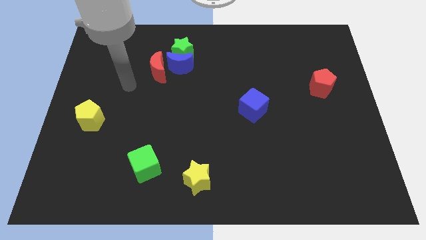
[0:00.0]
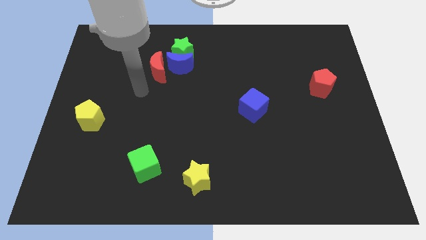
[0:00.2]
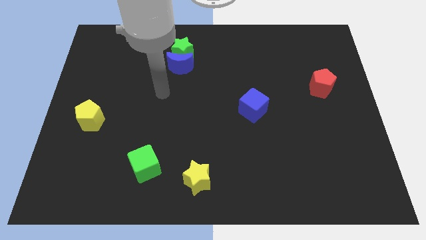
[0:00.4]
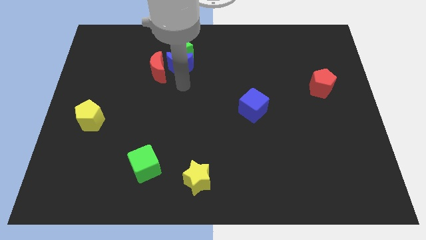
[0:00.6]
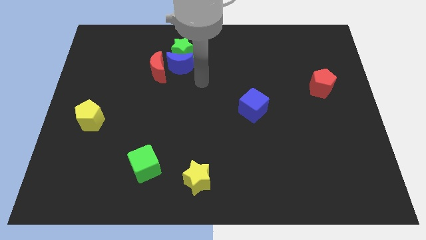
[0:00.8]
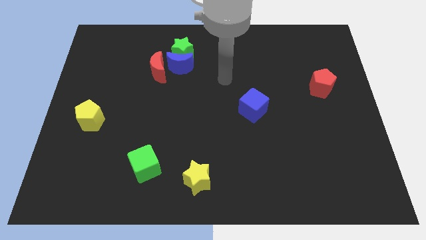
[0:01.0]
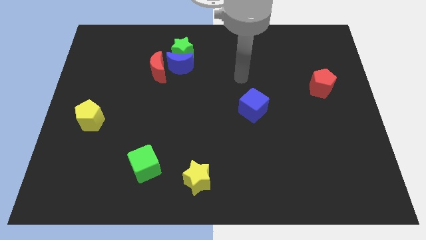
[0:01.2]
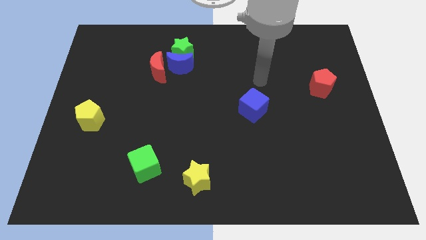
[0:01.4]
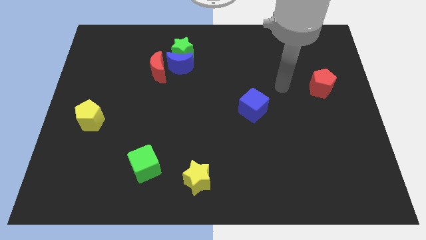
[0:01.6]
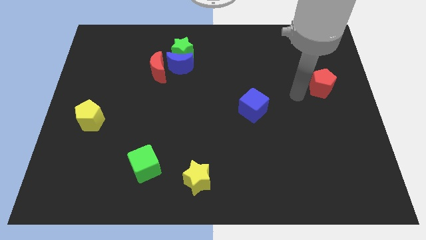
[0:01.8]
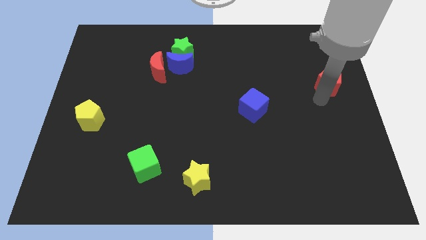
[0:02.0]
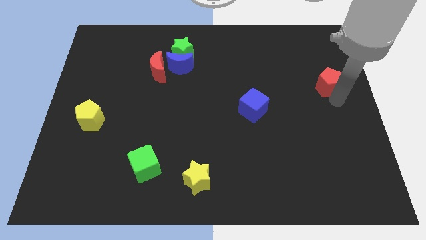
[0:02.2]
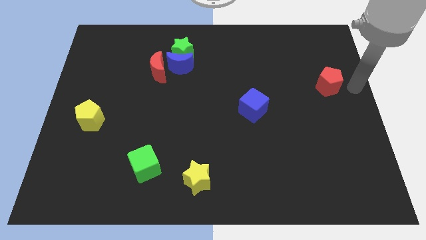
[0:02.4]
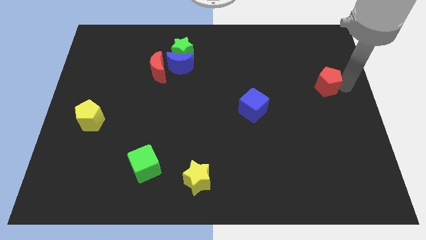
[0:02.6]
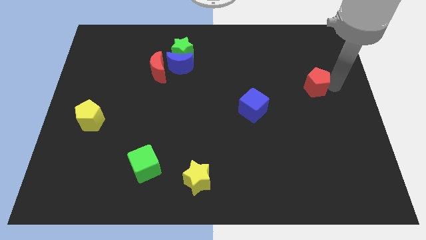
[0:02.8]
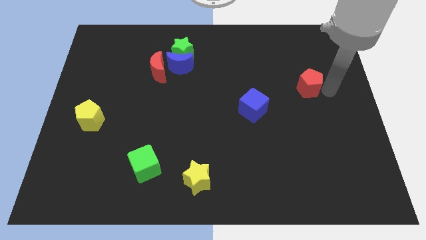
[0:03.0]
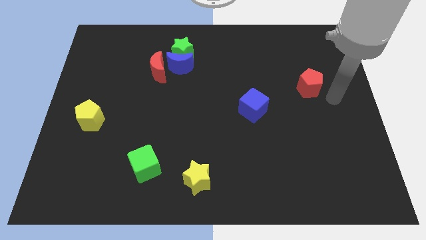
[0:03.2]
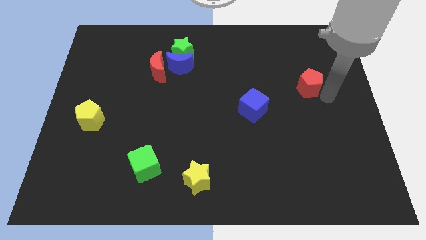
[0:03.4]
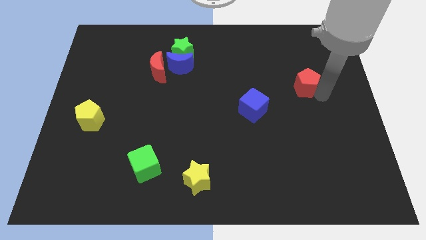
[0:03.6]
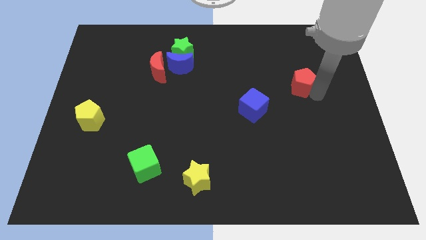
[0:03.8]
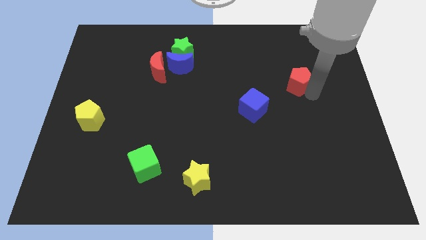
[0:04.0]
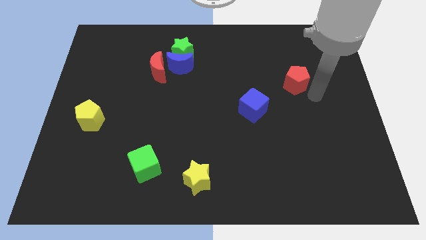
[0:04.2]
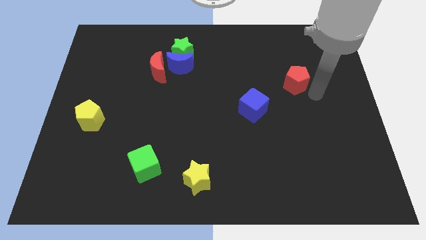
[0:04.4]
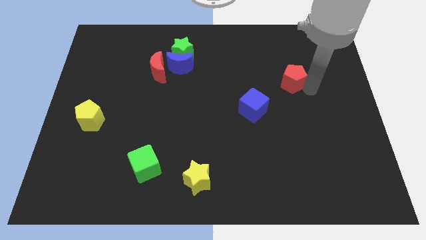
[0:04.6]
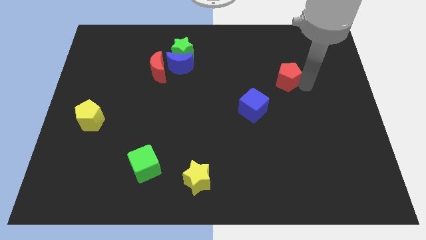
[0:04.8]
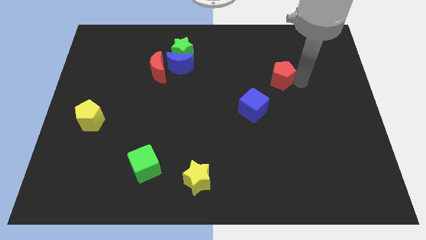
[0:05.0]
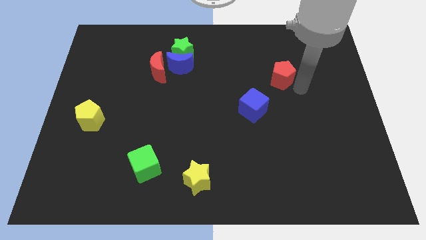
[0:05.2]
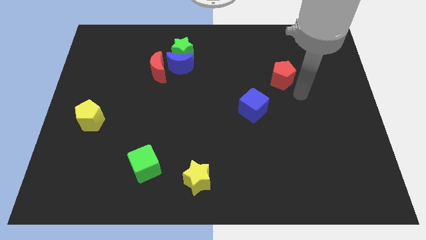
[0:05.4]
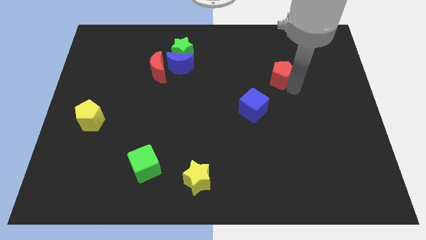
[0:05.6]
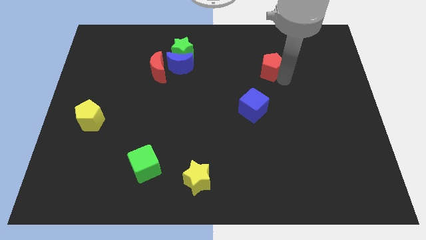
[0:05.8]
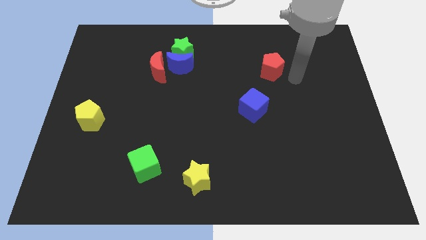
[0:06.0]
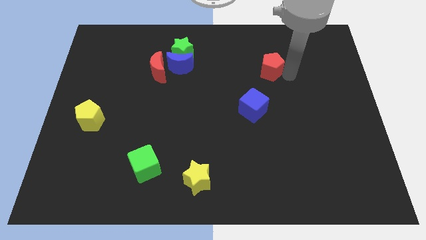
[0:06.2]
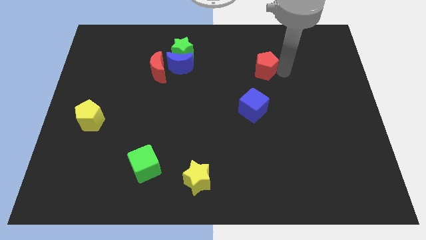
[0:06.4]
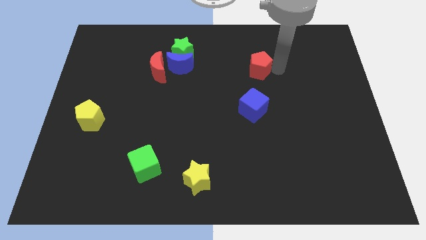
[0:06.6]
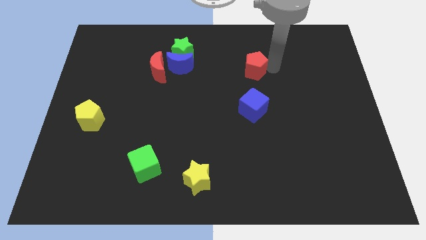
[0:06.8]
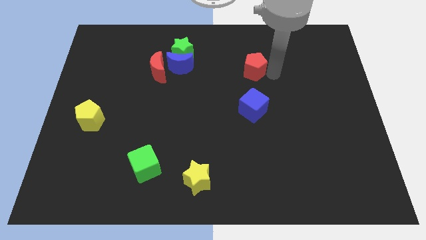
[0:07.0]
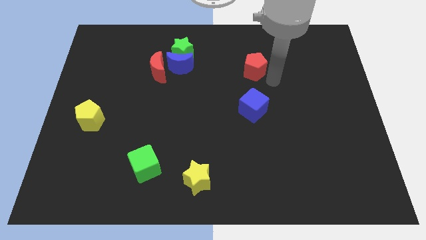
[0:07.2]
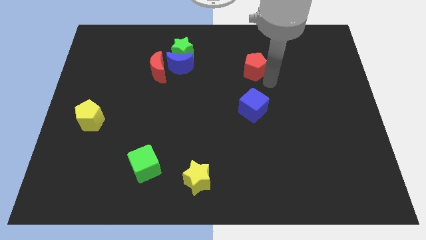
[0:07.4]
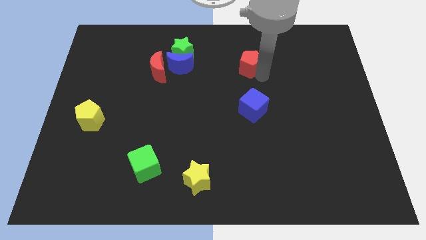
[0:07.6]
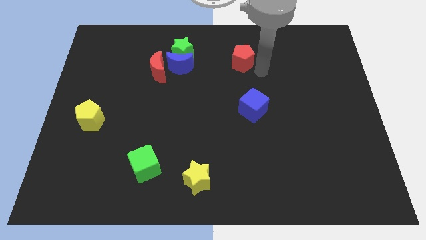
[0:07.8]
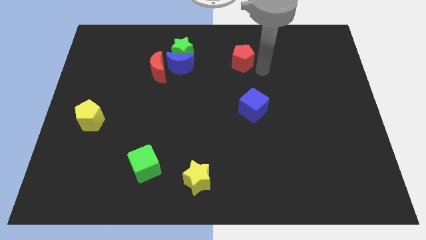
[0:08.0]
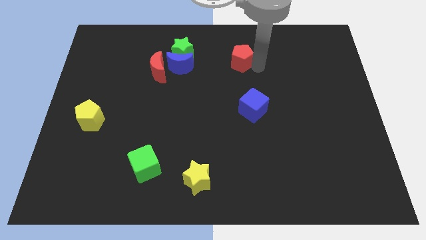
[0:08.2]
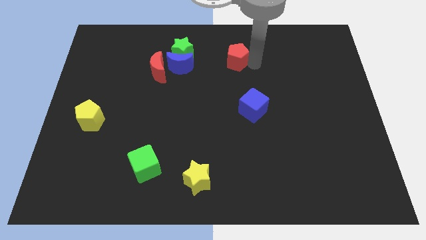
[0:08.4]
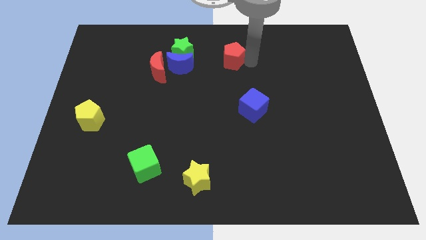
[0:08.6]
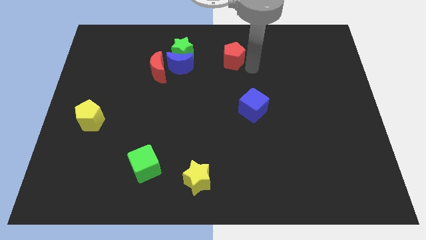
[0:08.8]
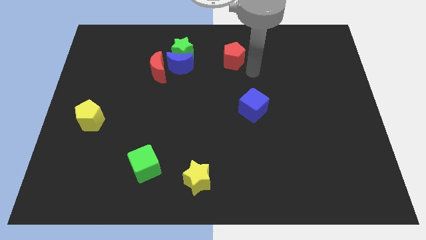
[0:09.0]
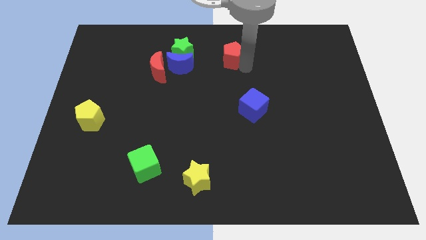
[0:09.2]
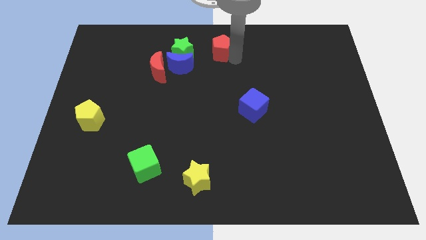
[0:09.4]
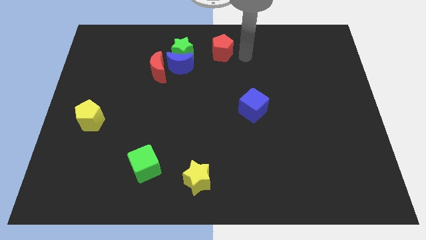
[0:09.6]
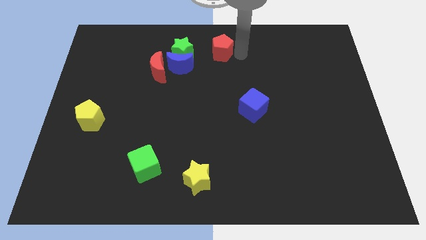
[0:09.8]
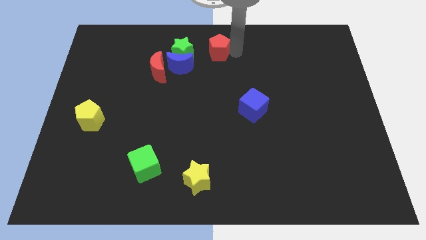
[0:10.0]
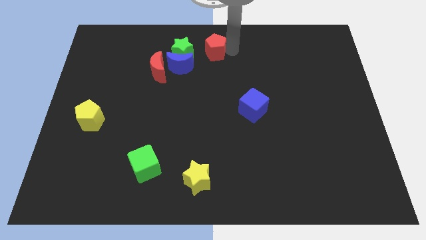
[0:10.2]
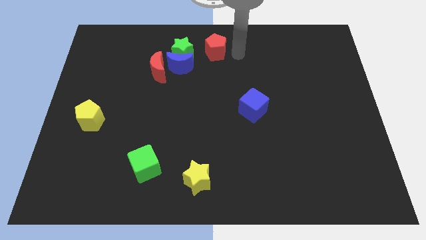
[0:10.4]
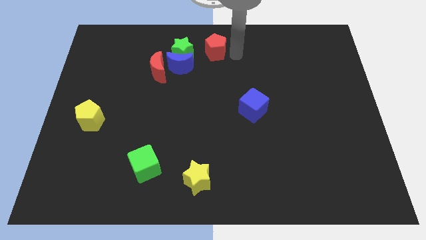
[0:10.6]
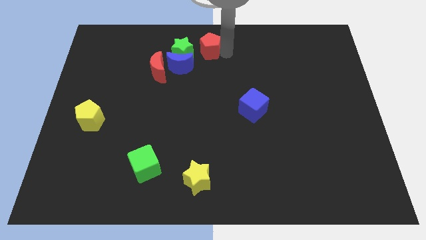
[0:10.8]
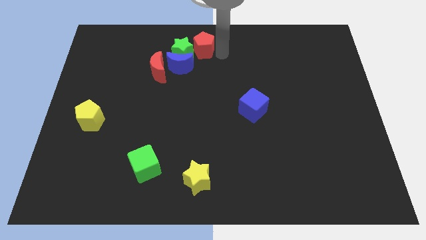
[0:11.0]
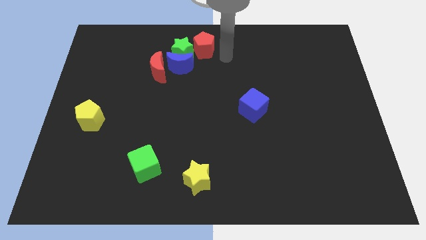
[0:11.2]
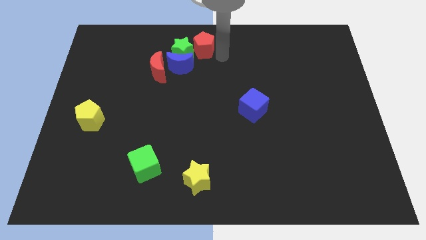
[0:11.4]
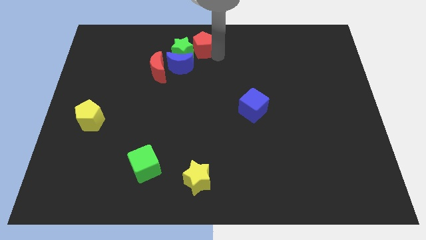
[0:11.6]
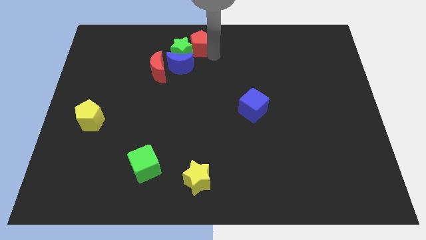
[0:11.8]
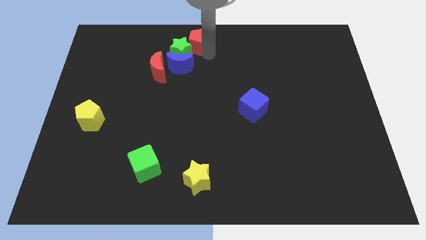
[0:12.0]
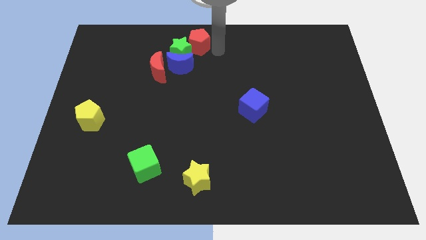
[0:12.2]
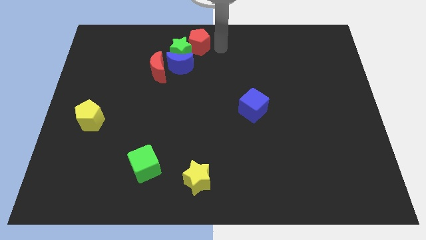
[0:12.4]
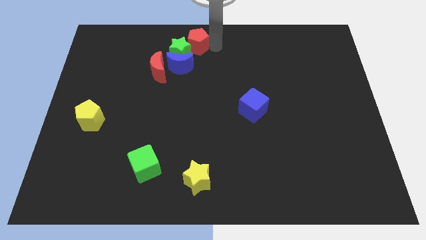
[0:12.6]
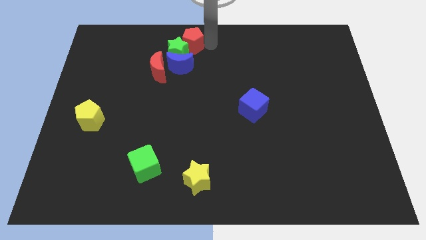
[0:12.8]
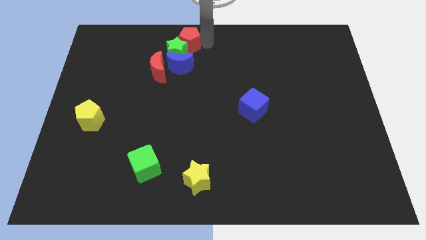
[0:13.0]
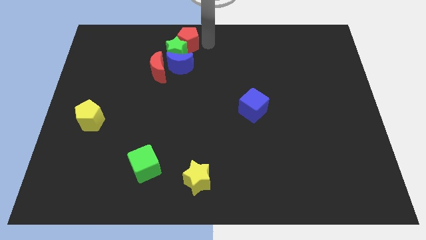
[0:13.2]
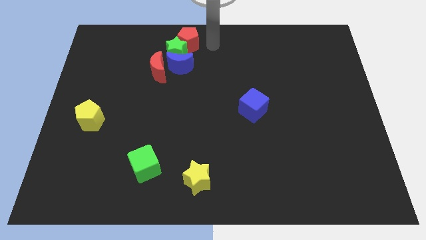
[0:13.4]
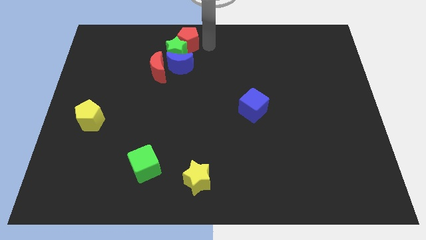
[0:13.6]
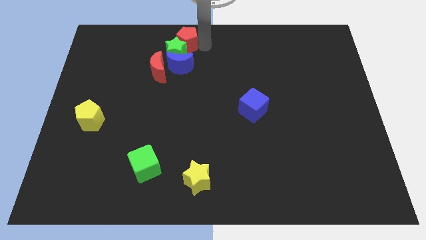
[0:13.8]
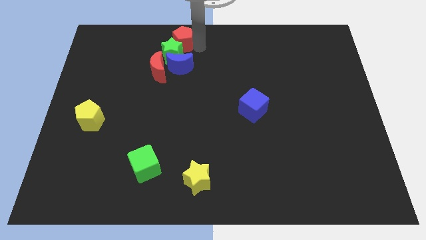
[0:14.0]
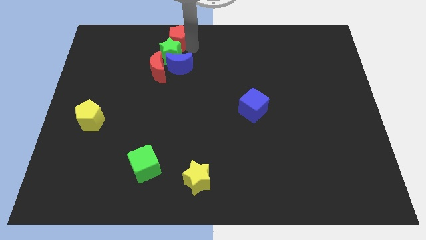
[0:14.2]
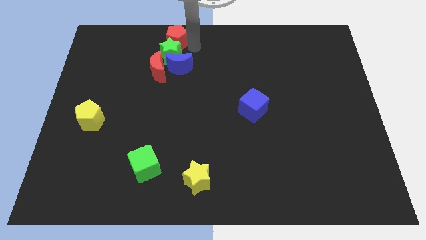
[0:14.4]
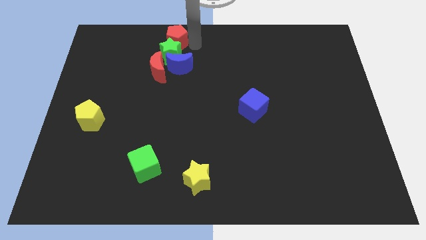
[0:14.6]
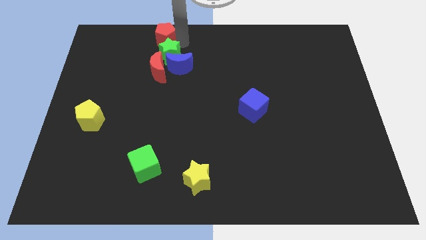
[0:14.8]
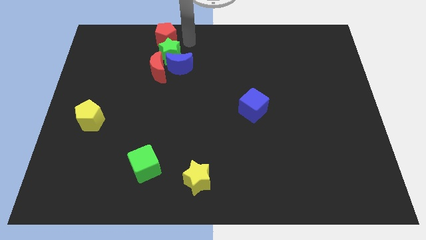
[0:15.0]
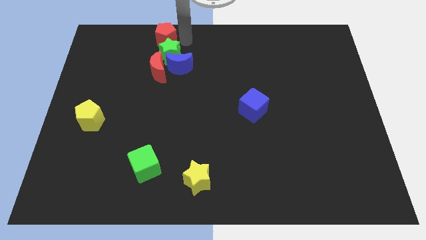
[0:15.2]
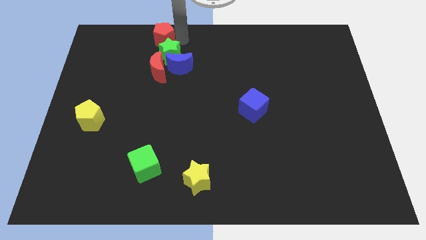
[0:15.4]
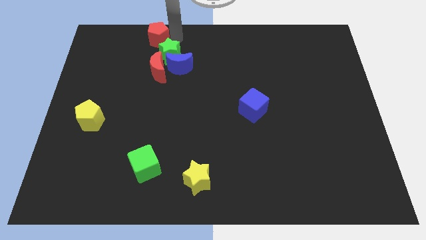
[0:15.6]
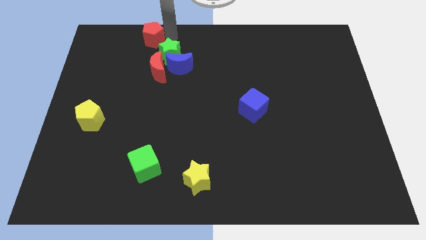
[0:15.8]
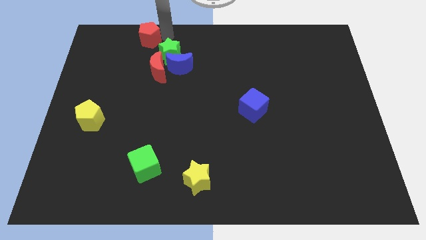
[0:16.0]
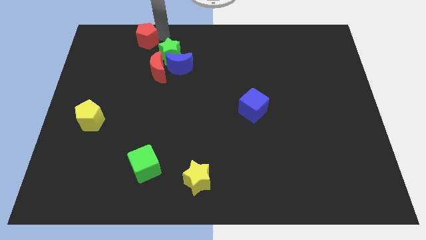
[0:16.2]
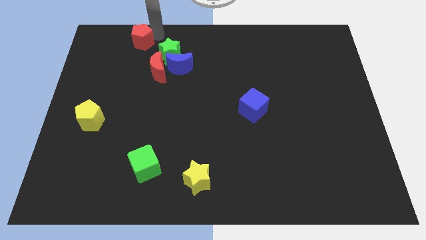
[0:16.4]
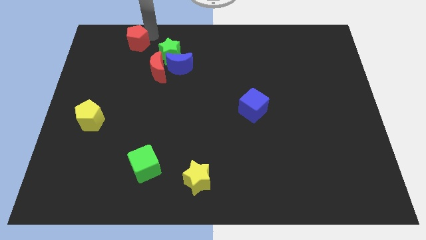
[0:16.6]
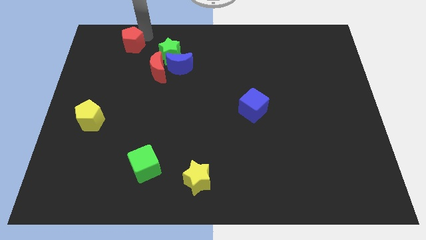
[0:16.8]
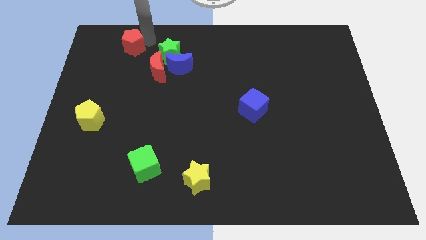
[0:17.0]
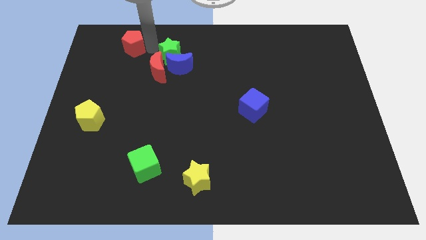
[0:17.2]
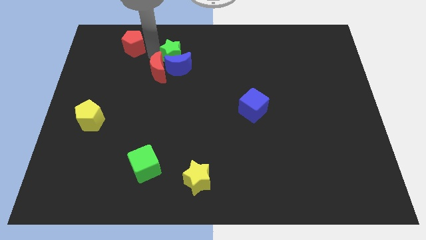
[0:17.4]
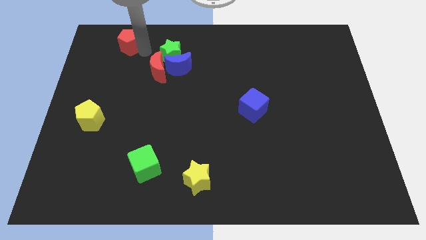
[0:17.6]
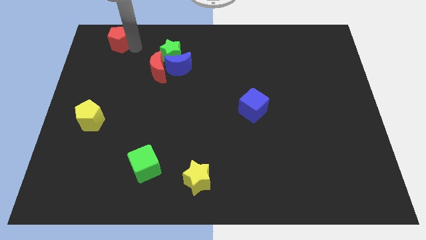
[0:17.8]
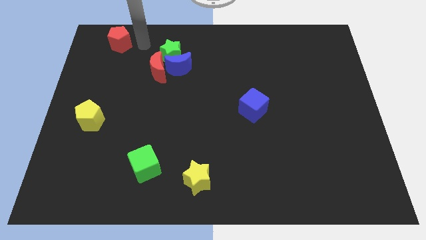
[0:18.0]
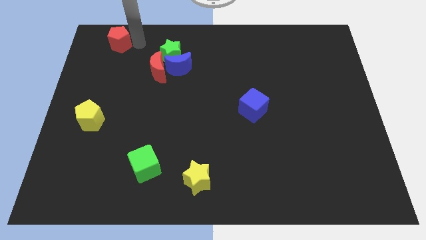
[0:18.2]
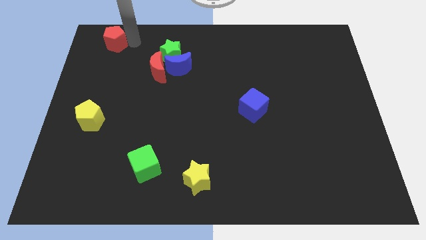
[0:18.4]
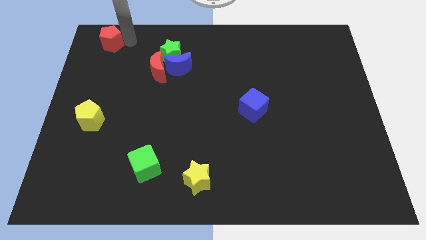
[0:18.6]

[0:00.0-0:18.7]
push the red pentagon to the top left of the board
